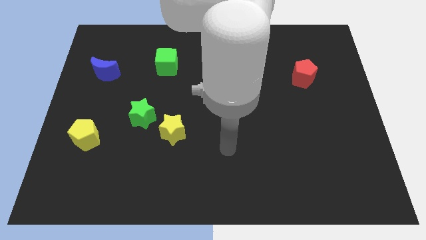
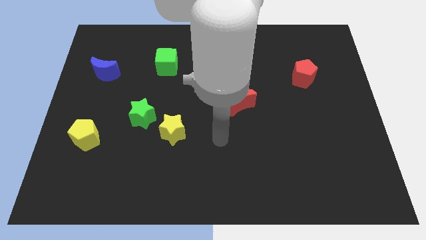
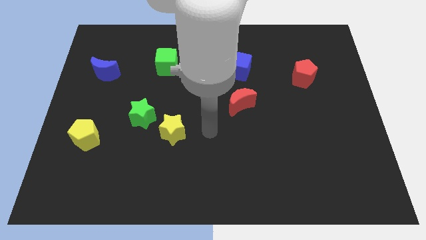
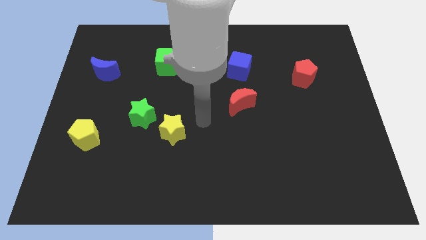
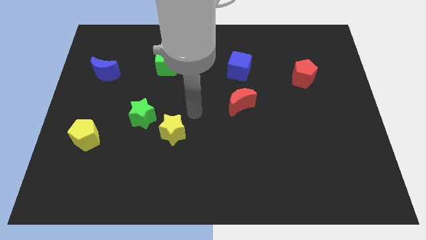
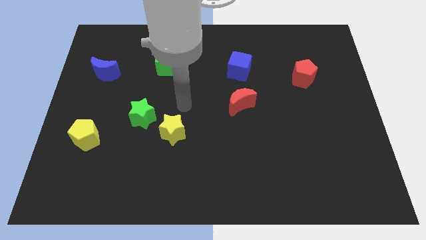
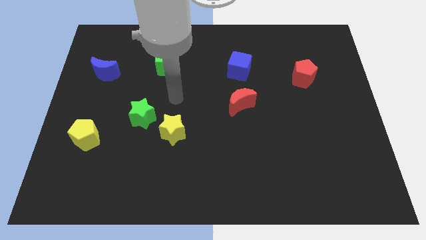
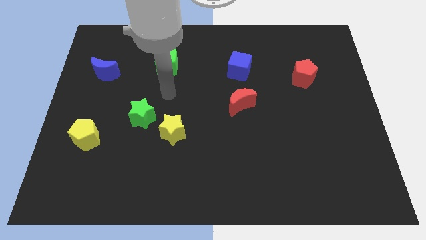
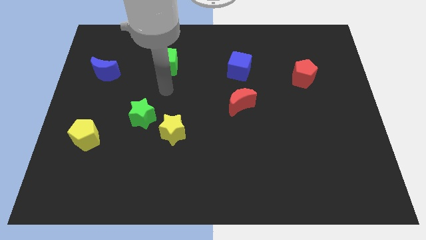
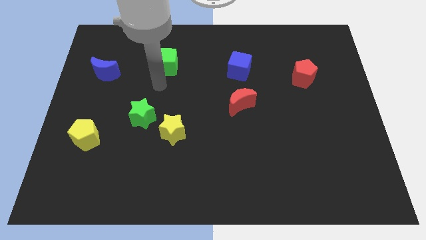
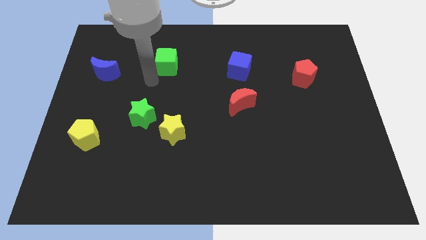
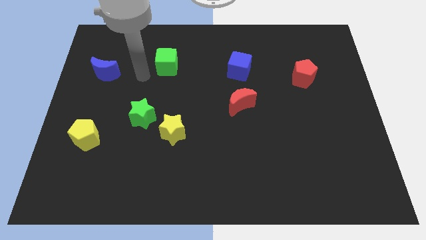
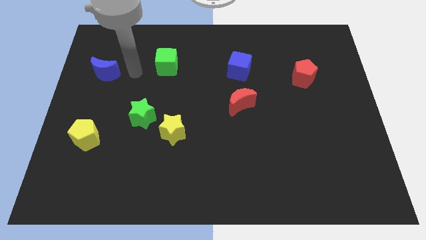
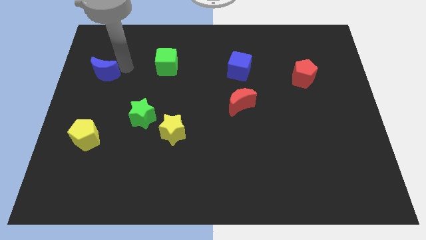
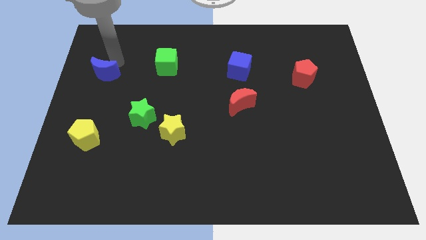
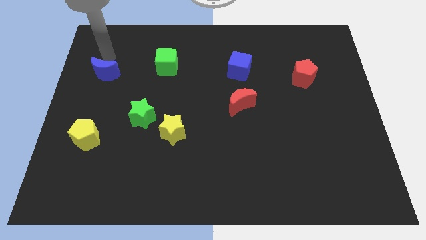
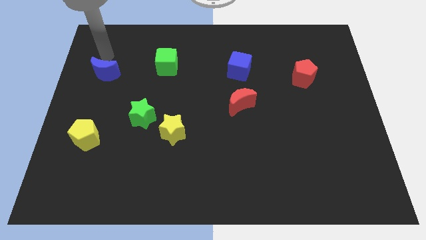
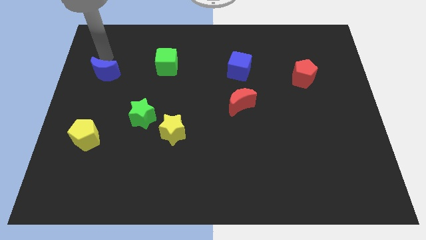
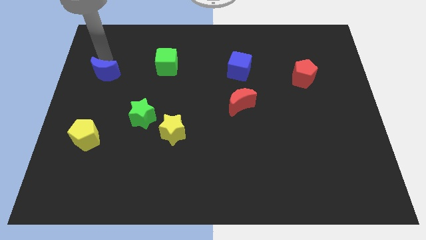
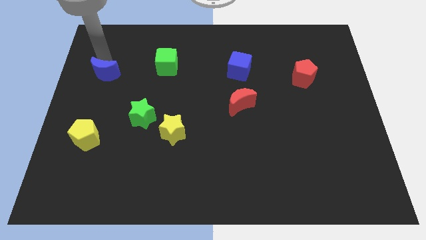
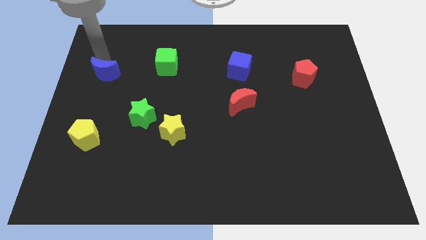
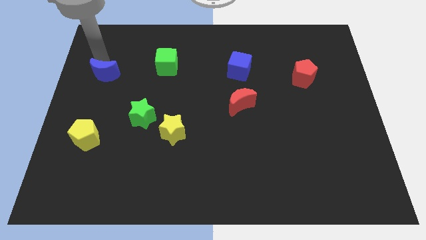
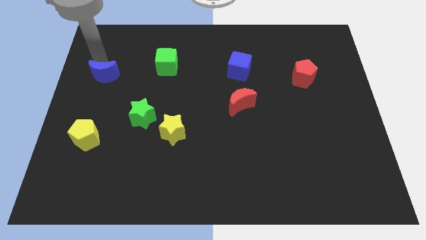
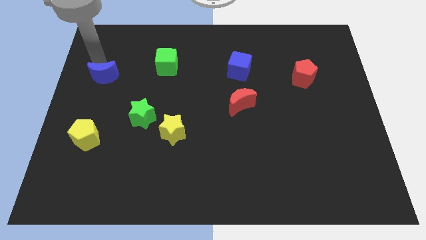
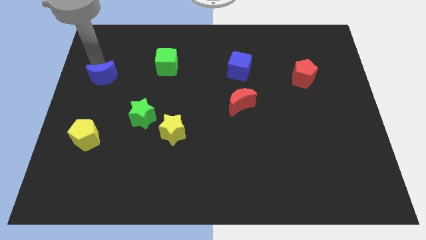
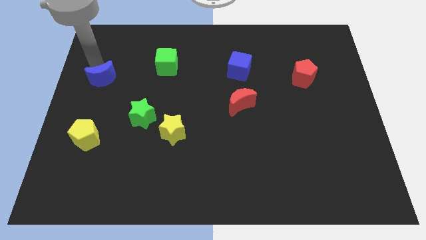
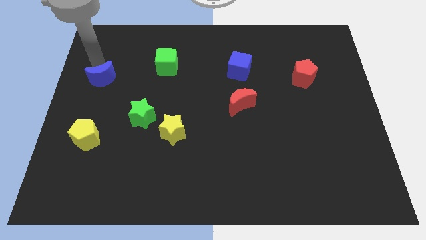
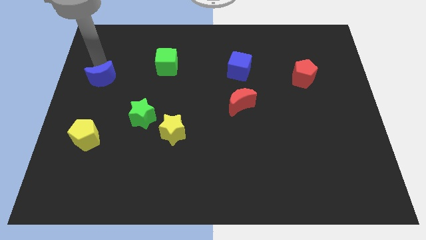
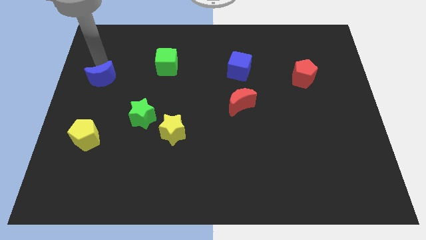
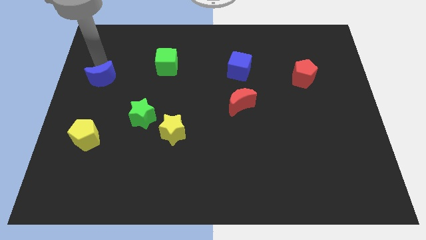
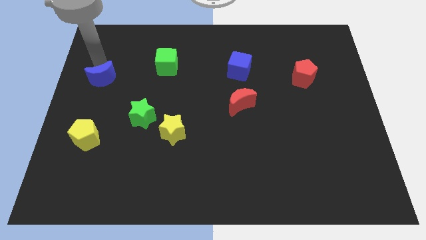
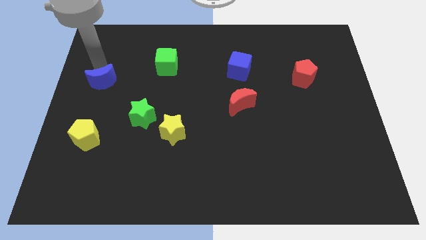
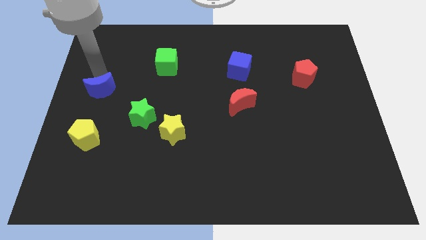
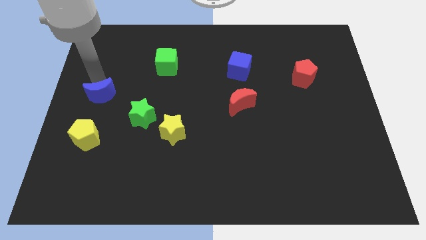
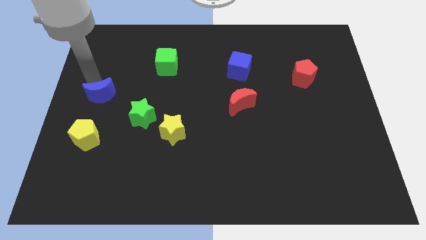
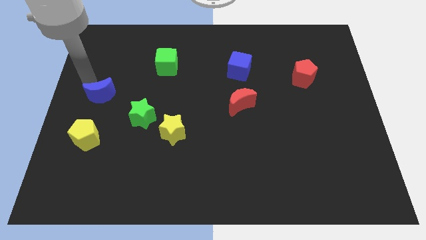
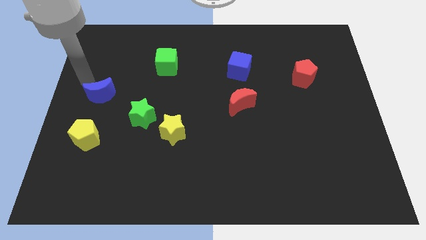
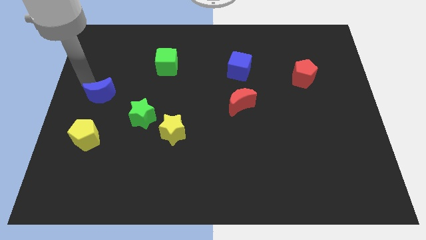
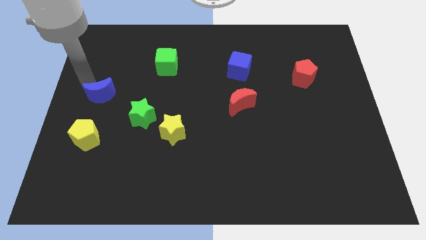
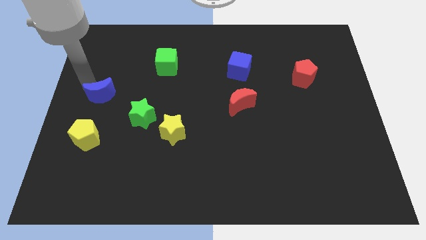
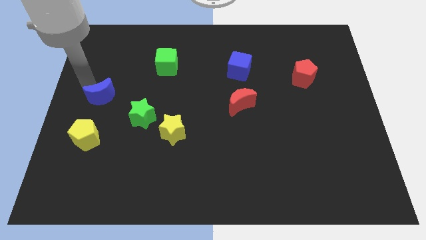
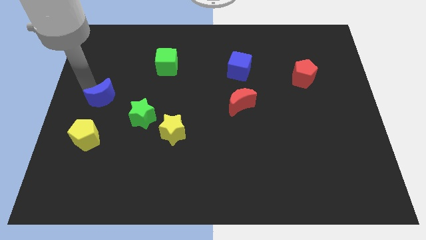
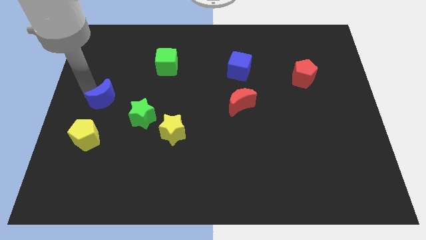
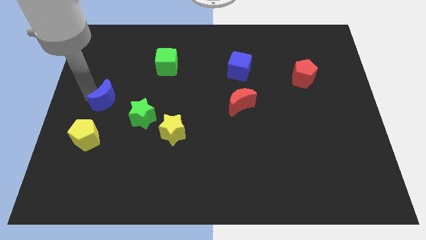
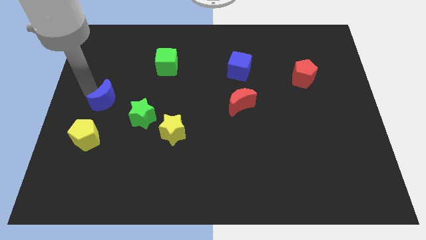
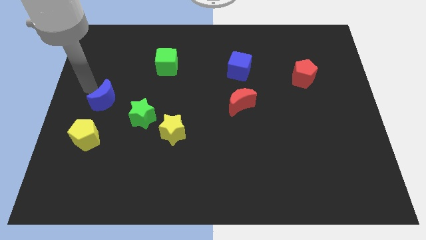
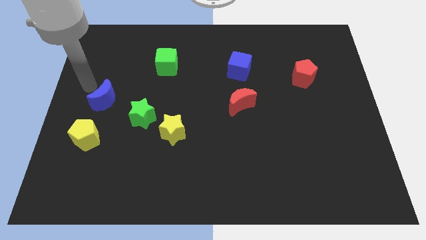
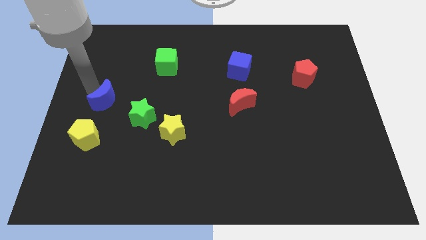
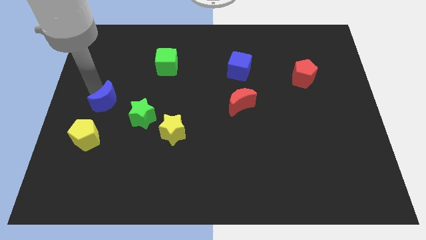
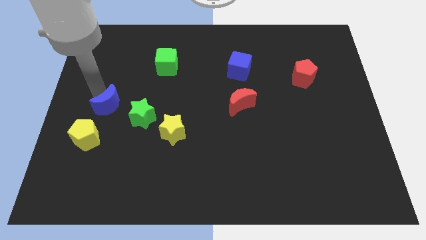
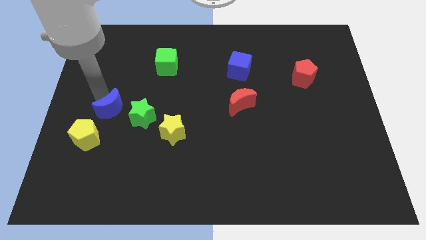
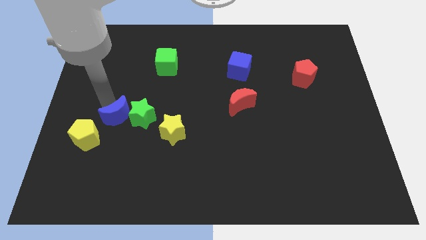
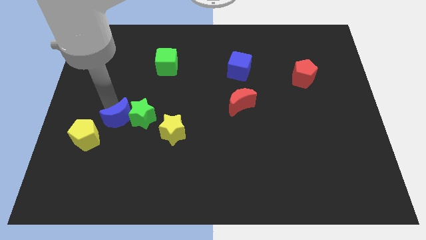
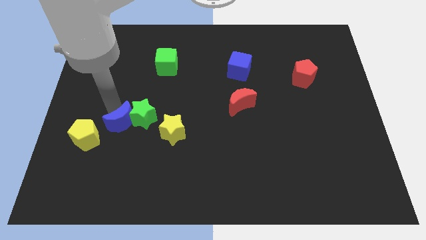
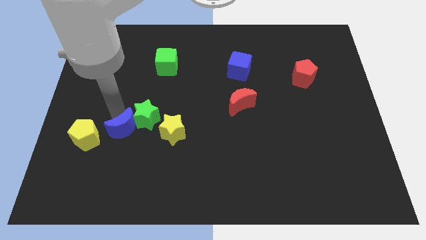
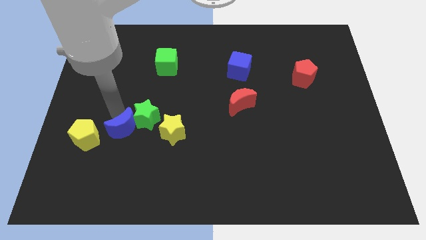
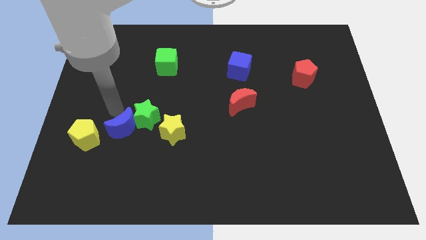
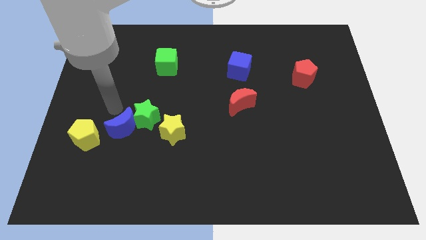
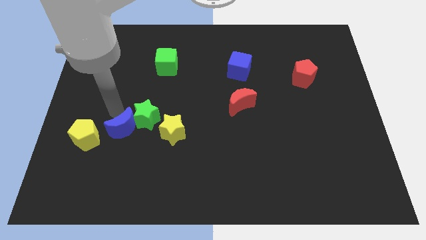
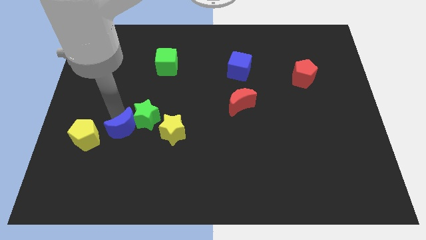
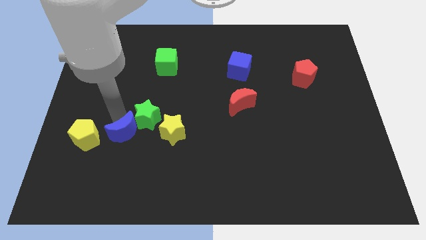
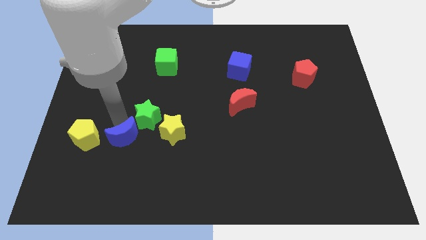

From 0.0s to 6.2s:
put the blue moon to the bottom of the green star
